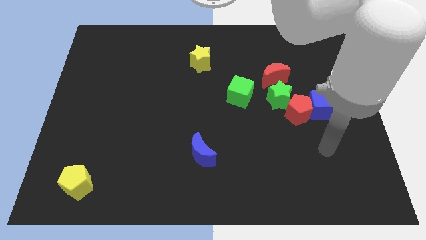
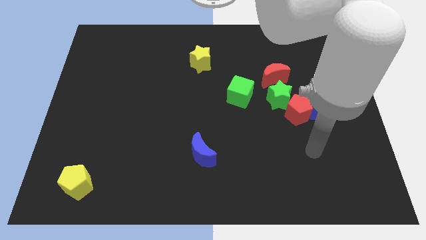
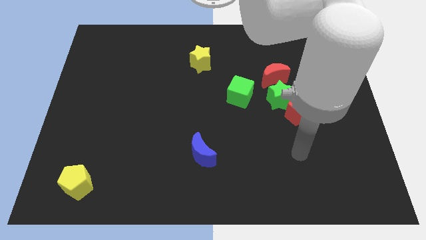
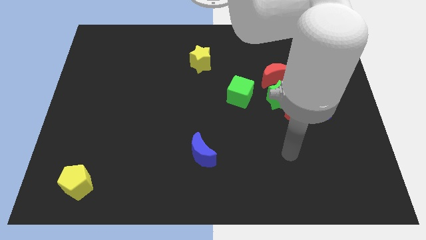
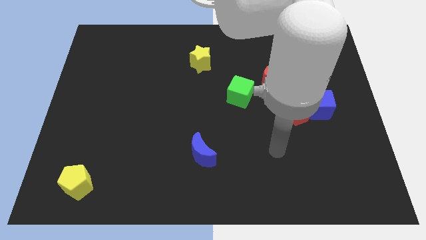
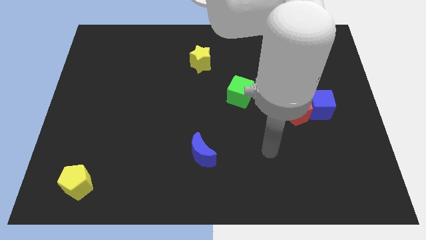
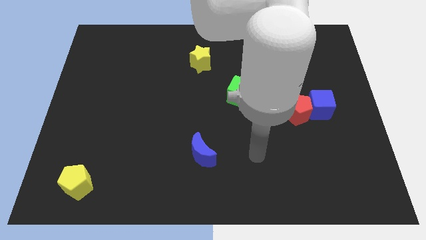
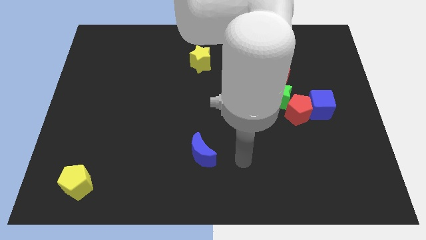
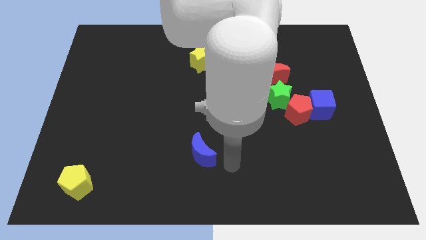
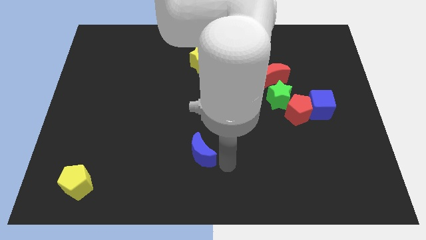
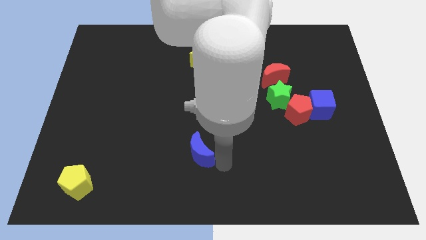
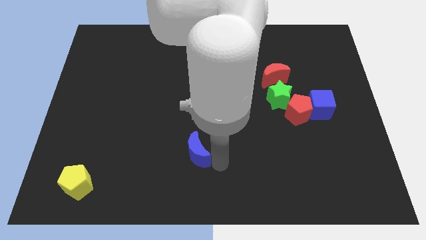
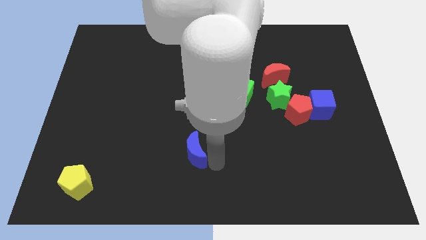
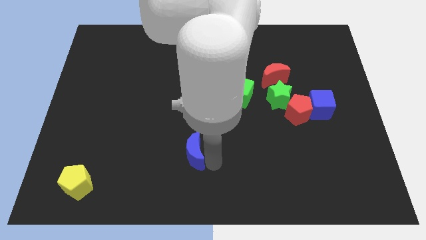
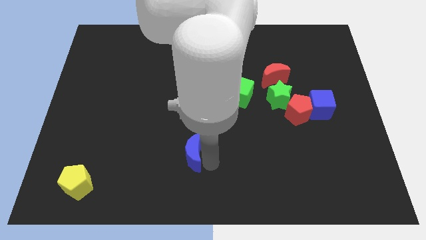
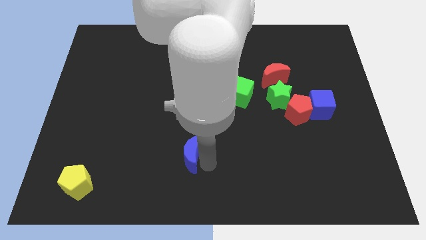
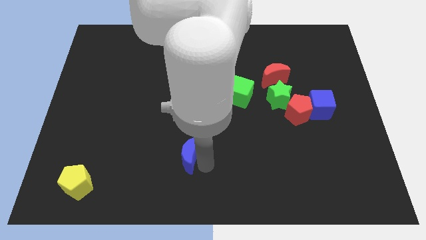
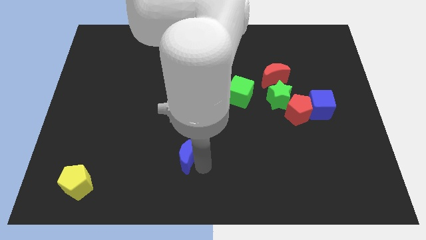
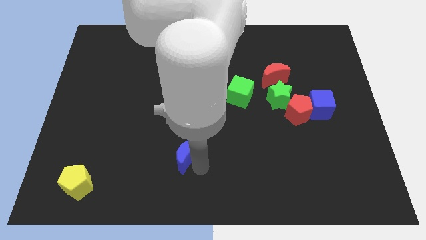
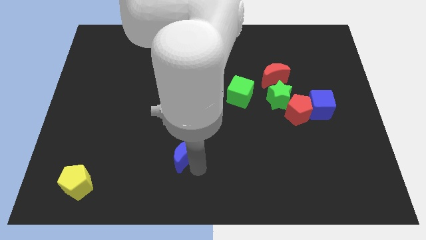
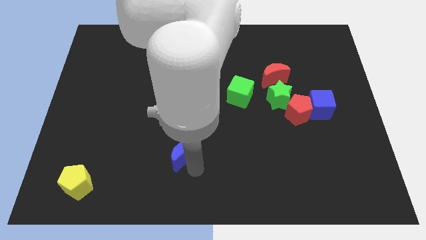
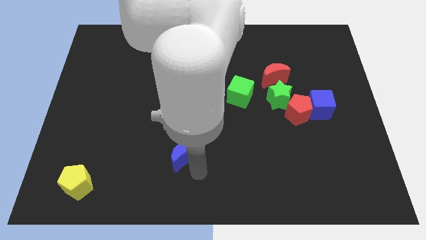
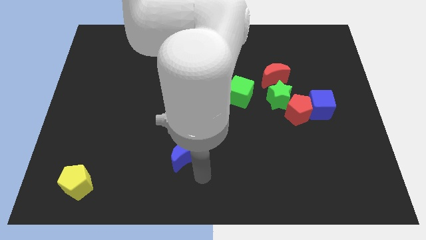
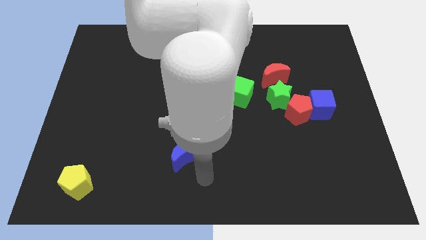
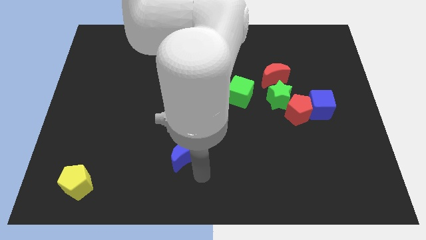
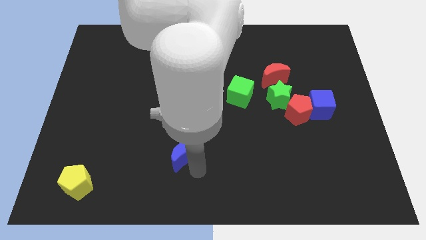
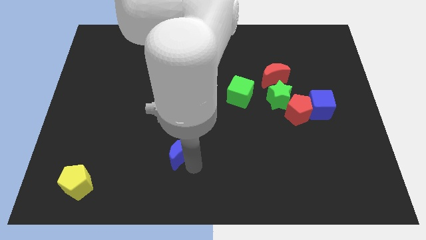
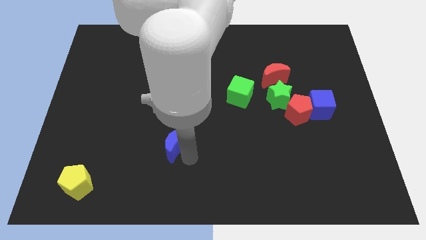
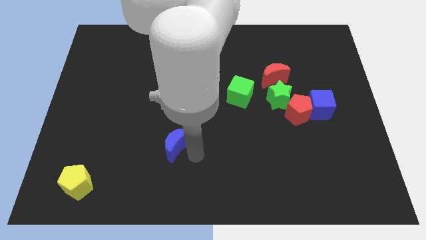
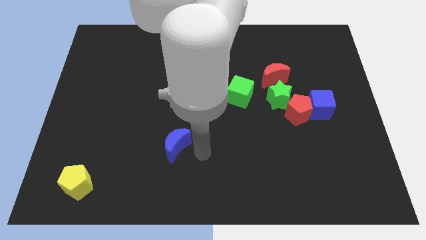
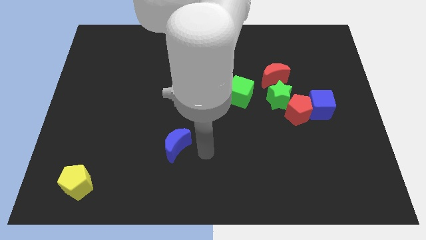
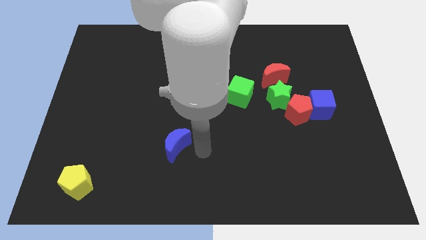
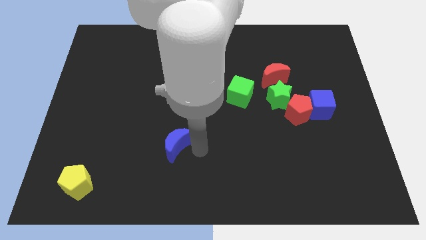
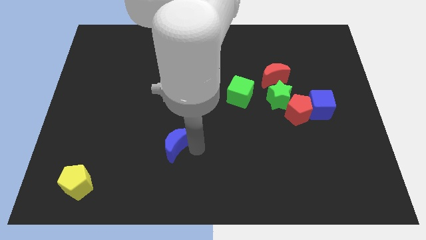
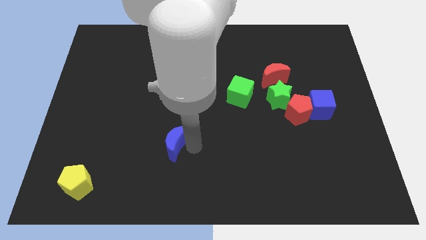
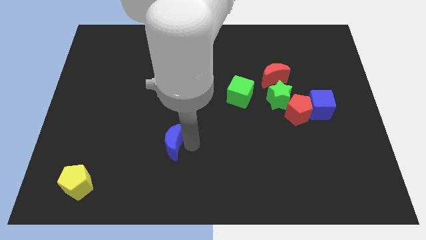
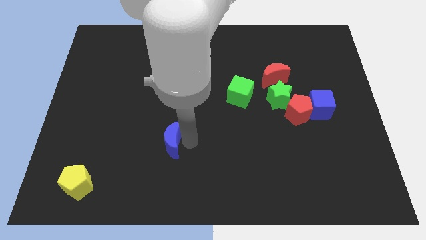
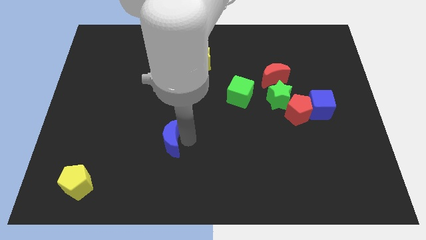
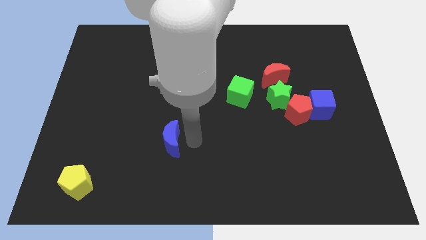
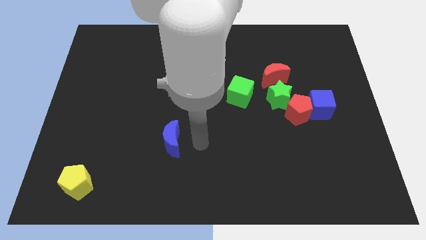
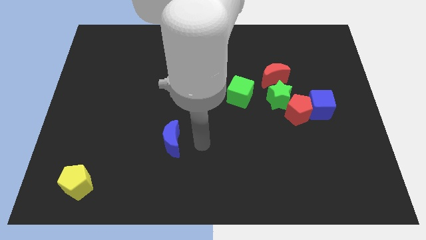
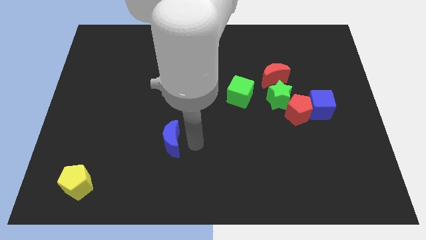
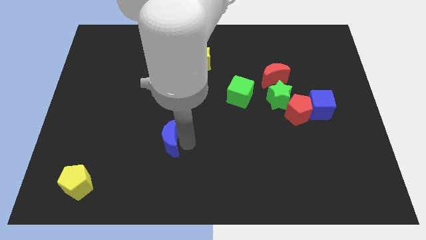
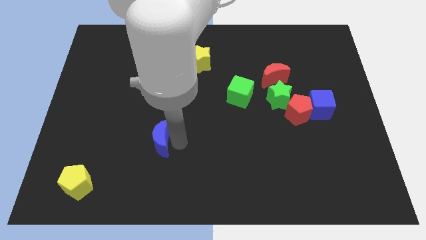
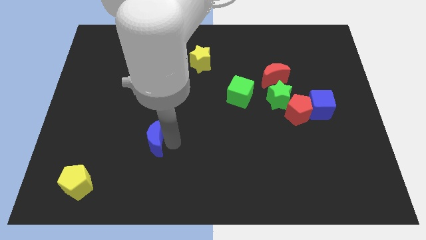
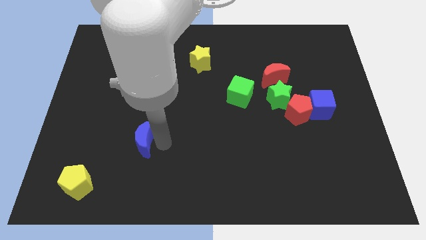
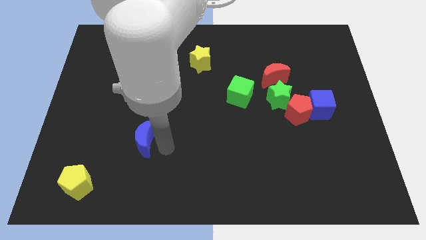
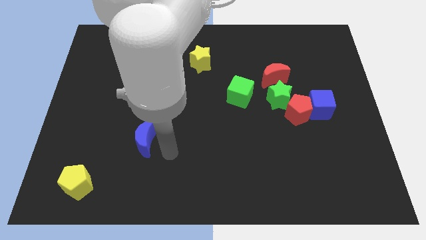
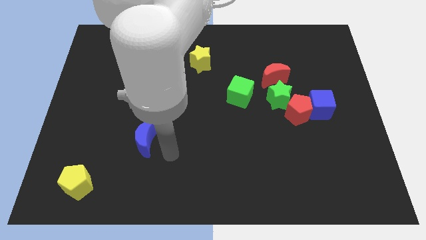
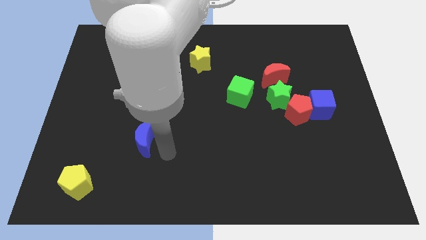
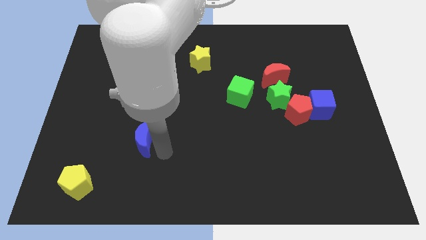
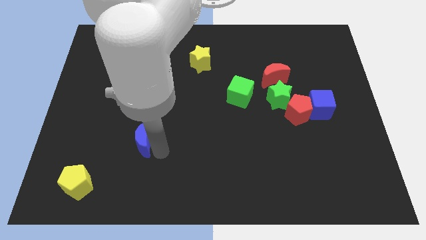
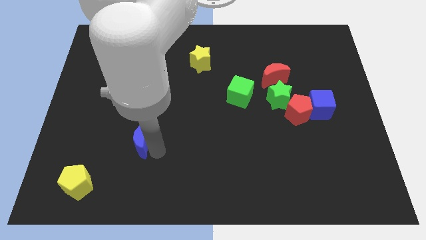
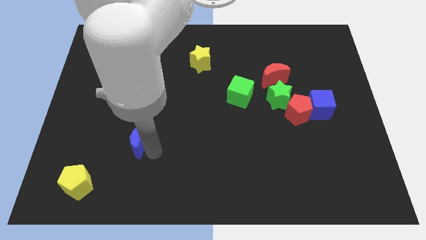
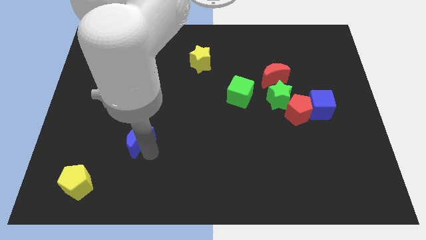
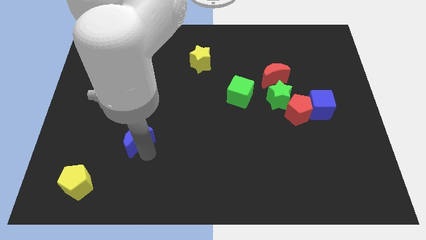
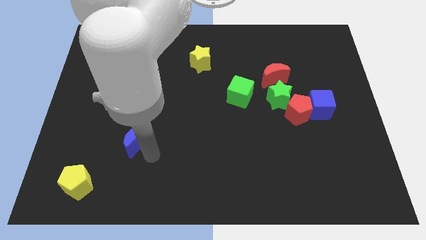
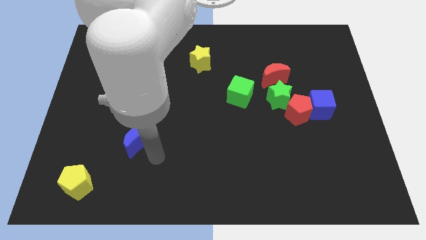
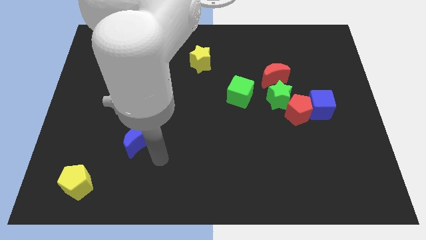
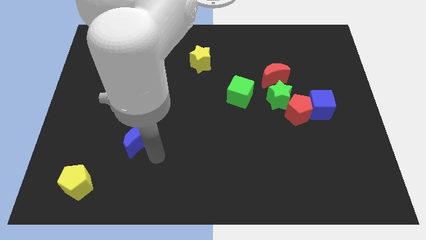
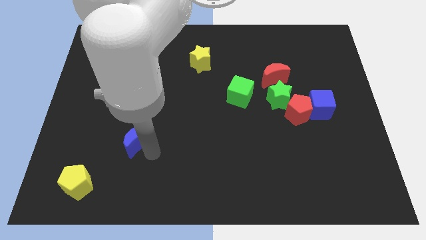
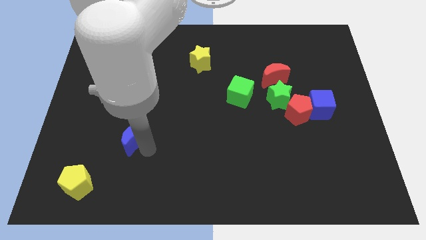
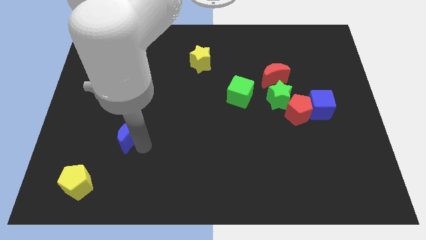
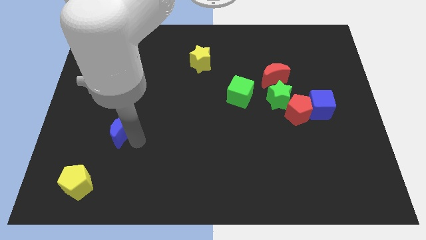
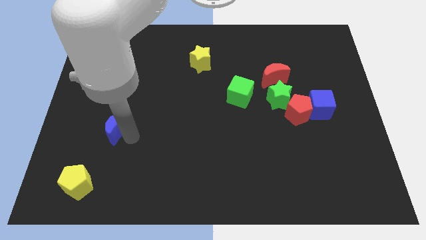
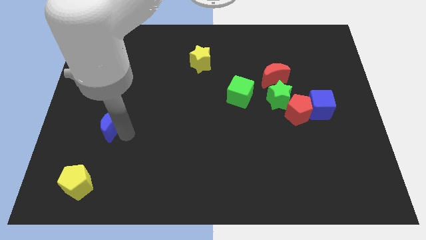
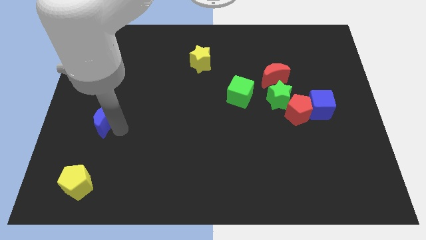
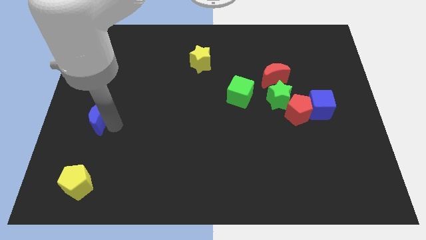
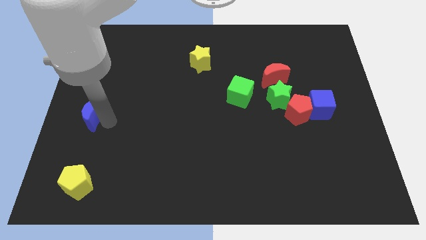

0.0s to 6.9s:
put the blue moon to the left side of the board
